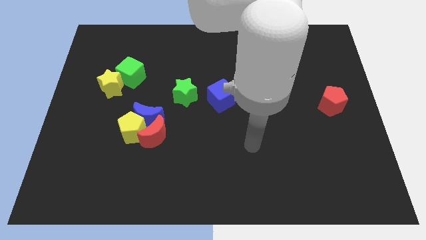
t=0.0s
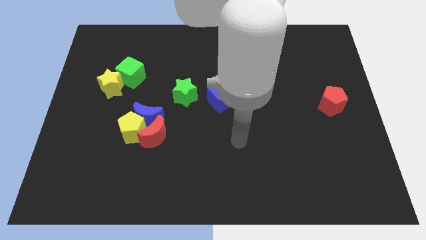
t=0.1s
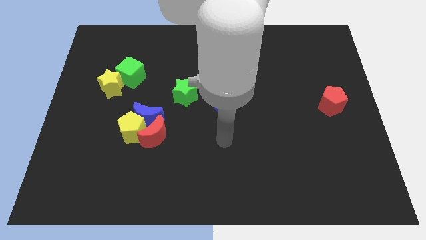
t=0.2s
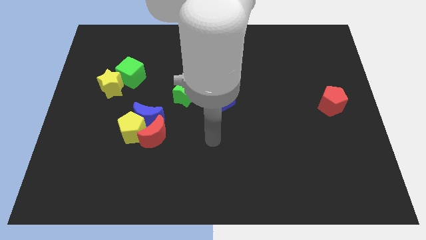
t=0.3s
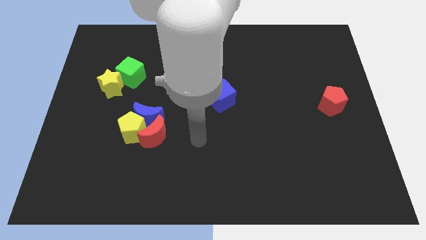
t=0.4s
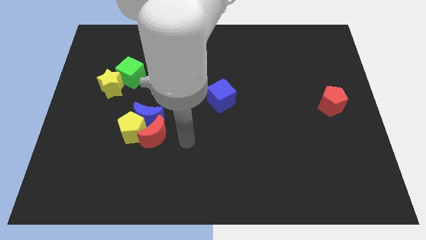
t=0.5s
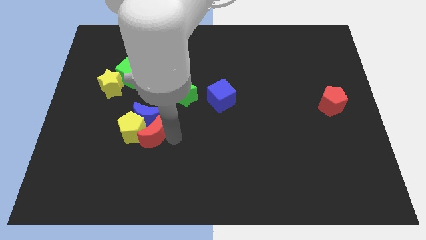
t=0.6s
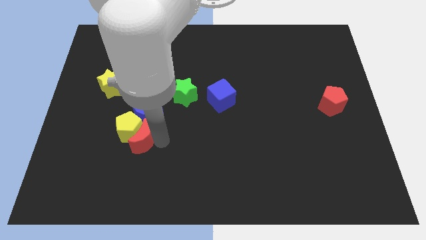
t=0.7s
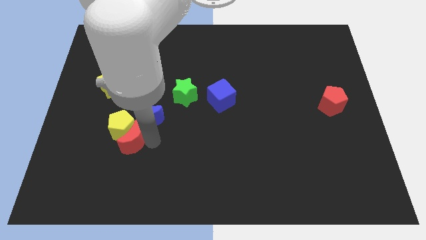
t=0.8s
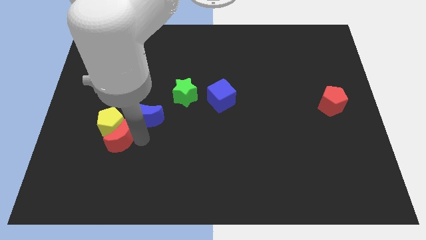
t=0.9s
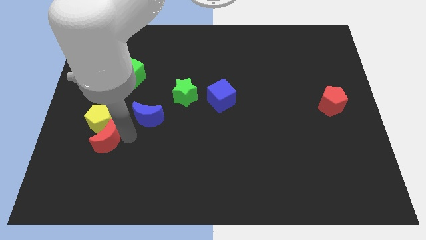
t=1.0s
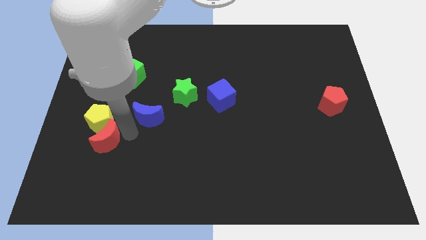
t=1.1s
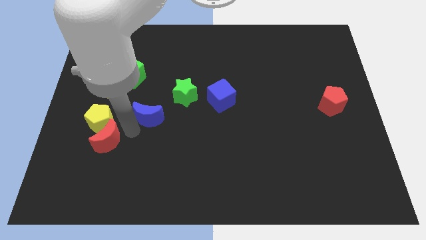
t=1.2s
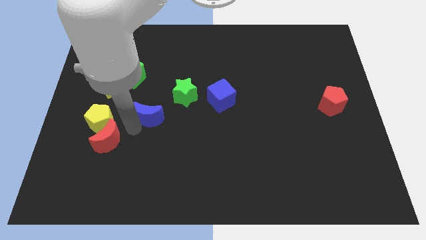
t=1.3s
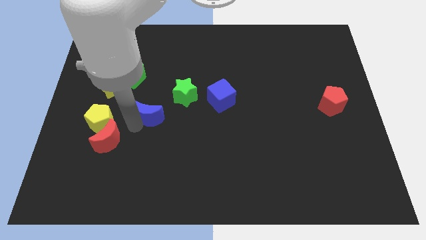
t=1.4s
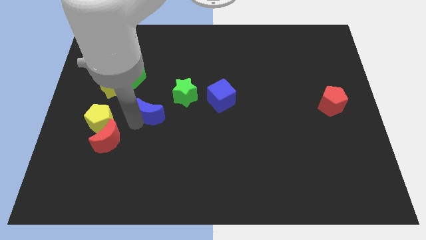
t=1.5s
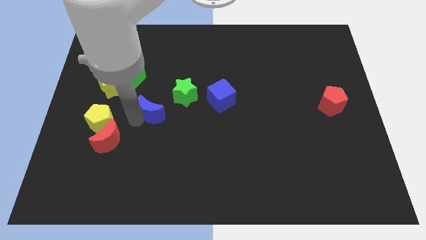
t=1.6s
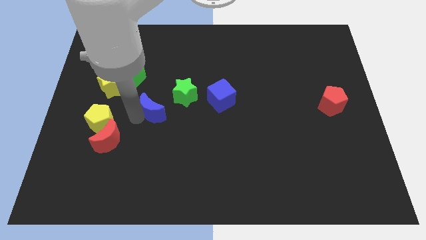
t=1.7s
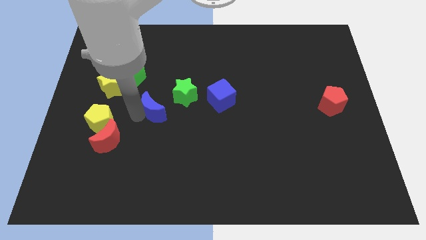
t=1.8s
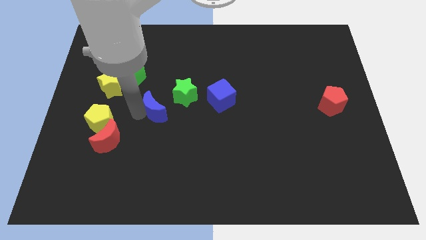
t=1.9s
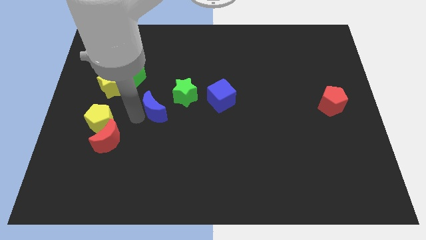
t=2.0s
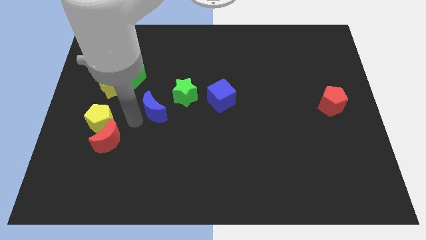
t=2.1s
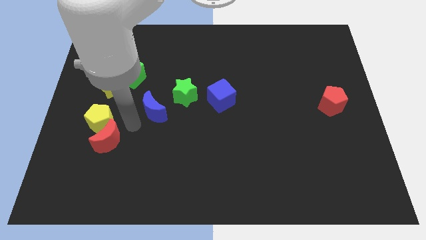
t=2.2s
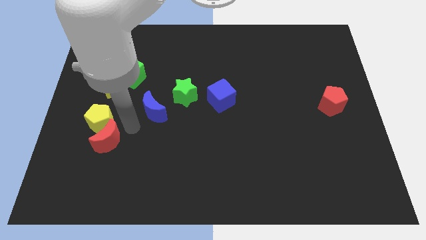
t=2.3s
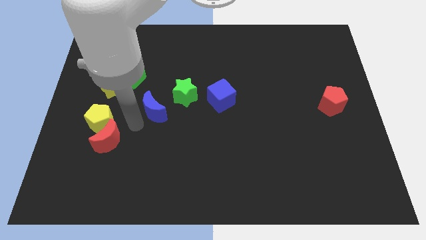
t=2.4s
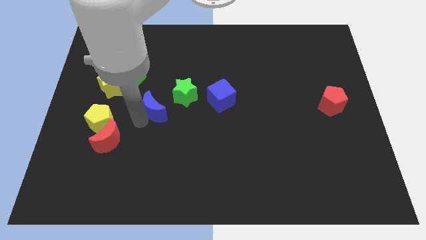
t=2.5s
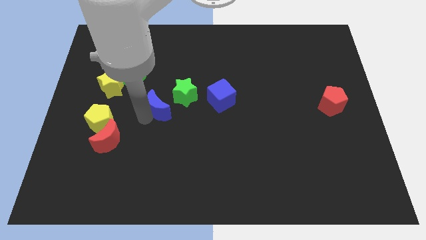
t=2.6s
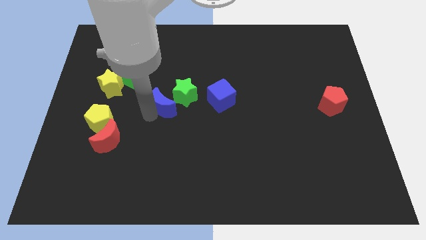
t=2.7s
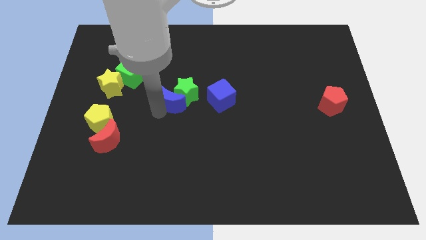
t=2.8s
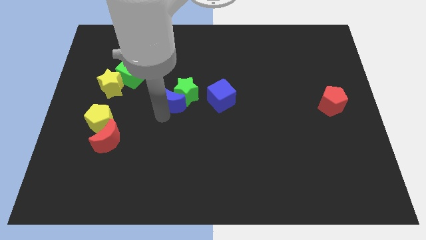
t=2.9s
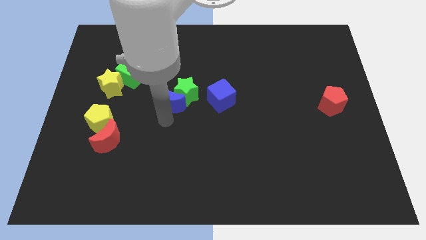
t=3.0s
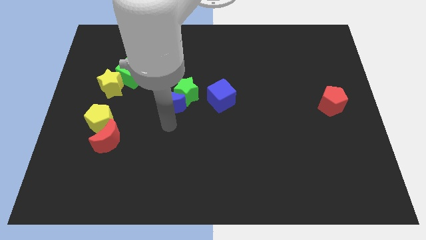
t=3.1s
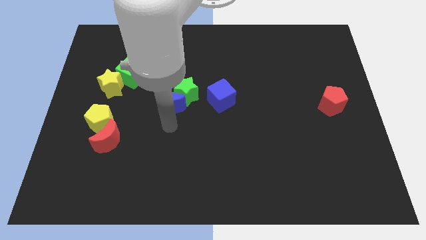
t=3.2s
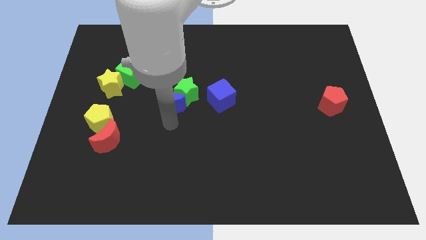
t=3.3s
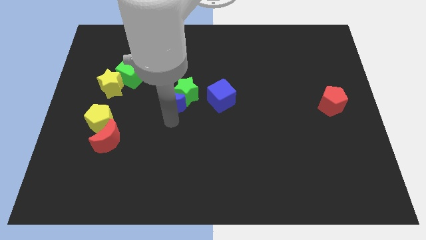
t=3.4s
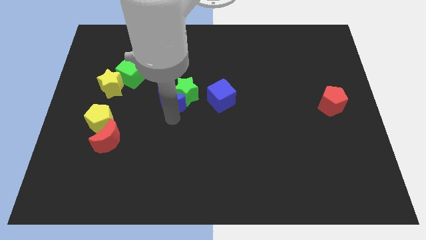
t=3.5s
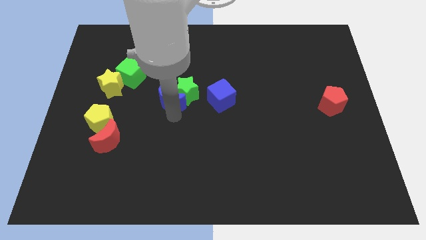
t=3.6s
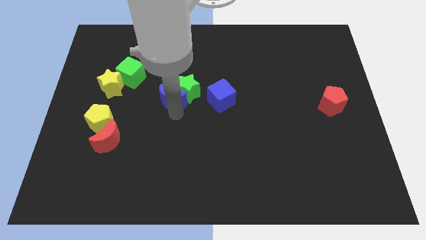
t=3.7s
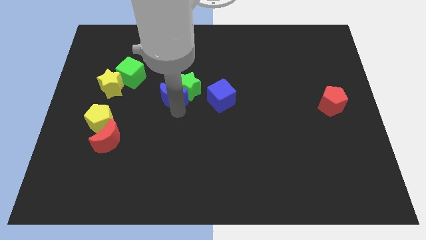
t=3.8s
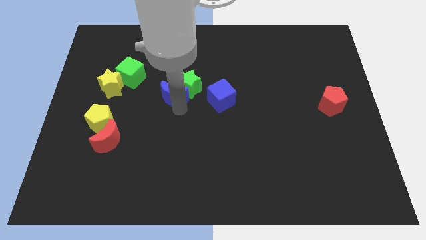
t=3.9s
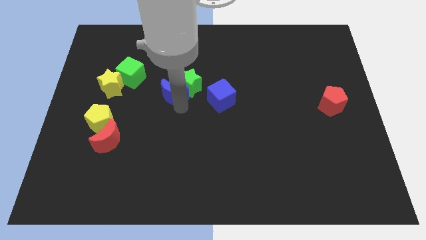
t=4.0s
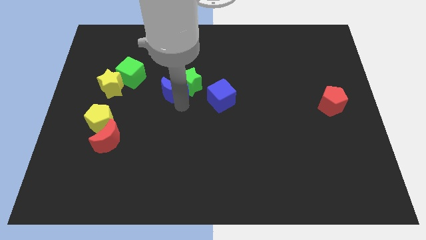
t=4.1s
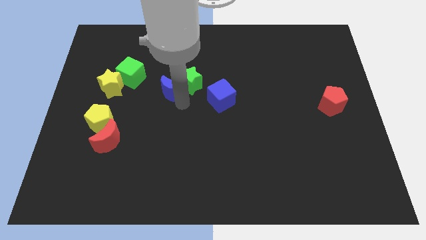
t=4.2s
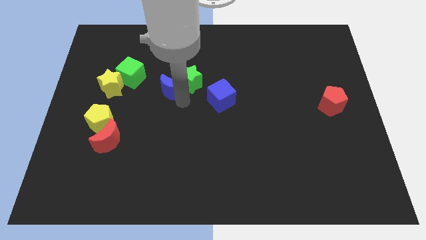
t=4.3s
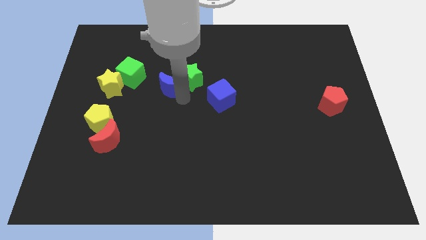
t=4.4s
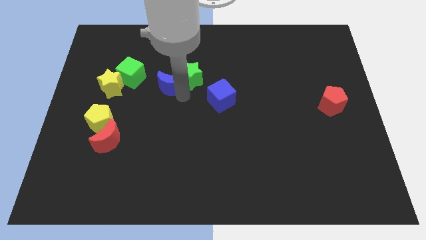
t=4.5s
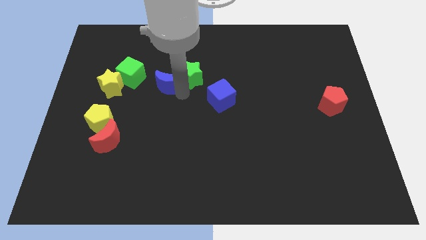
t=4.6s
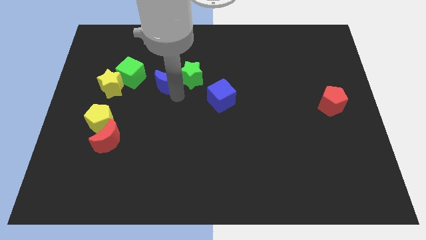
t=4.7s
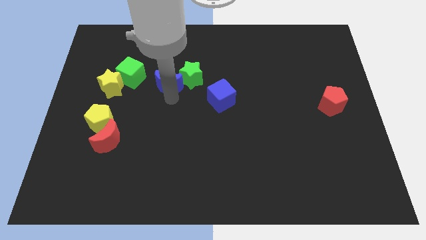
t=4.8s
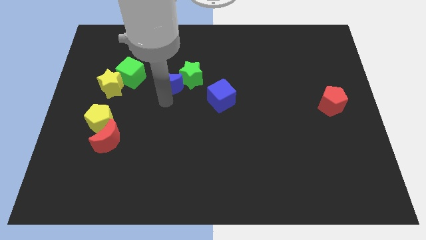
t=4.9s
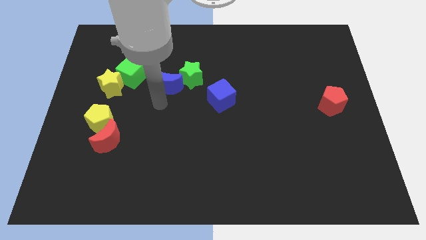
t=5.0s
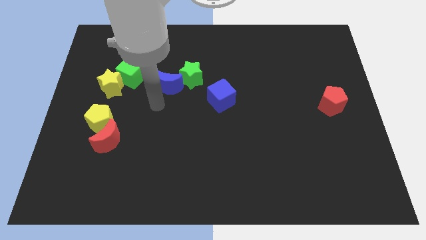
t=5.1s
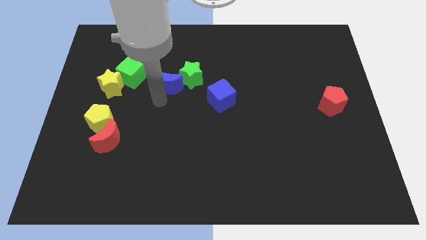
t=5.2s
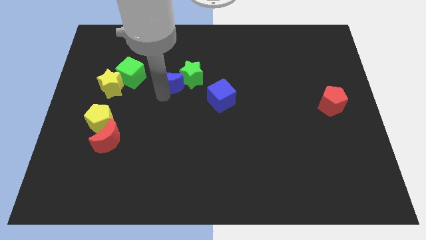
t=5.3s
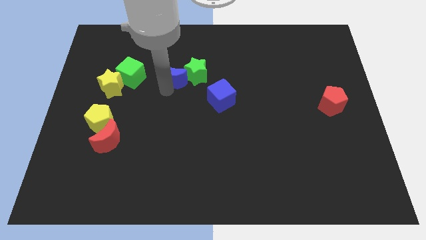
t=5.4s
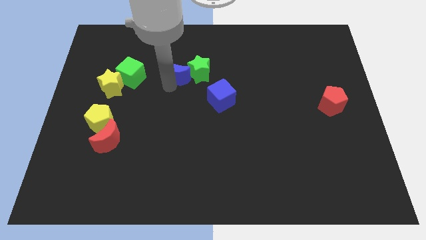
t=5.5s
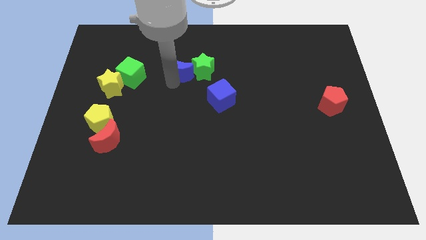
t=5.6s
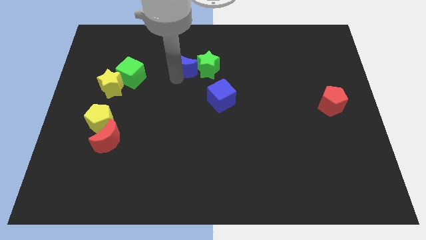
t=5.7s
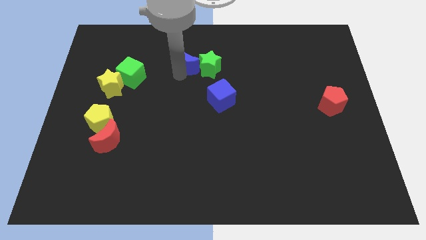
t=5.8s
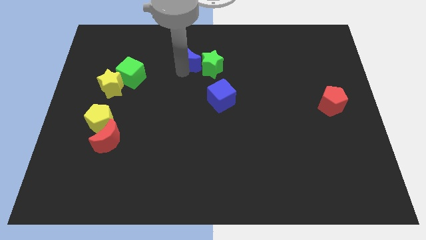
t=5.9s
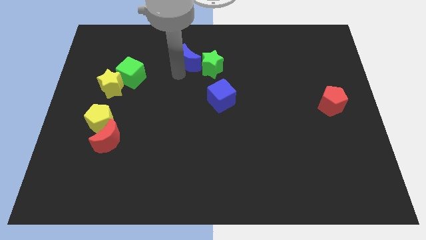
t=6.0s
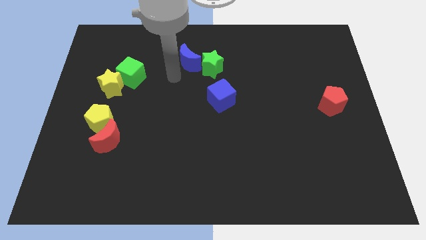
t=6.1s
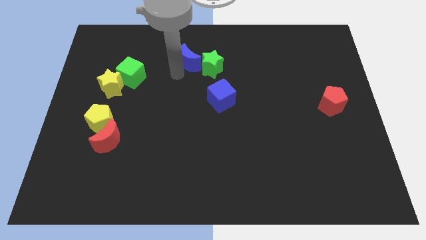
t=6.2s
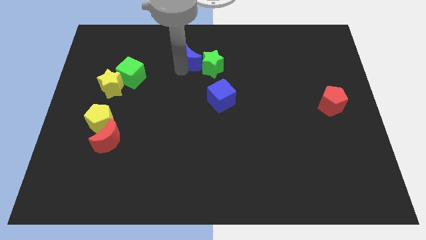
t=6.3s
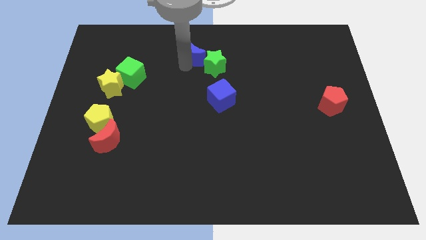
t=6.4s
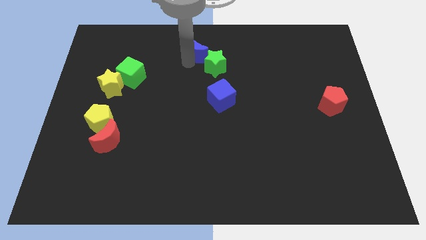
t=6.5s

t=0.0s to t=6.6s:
put the blue moon to the top
